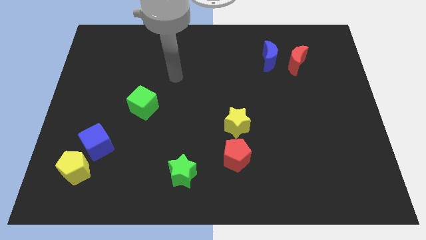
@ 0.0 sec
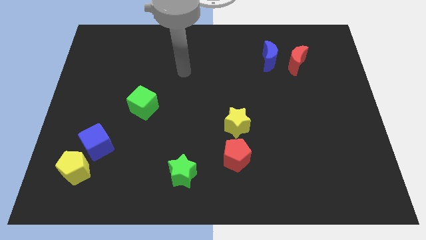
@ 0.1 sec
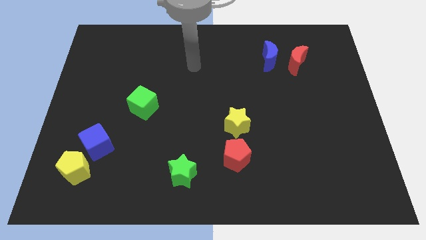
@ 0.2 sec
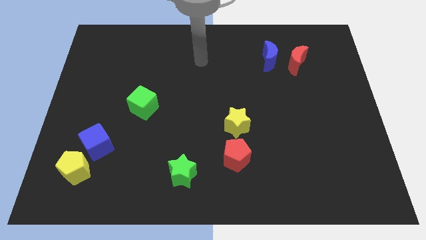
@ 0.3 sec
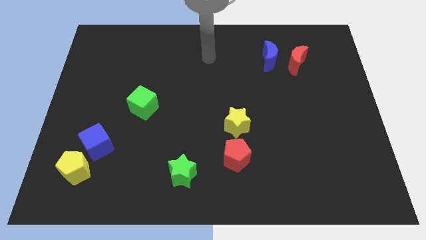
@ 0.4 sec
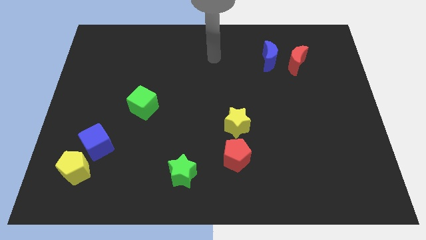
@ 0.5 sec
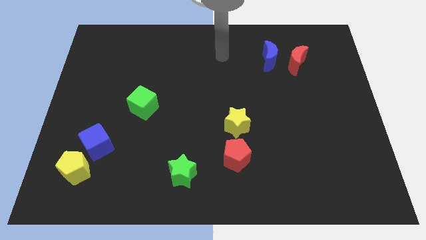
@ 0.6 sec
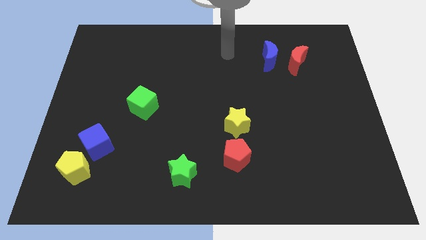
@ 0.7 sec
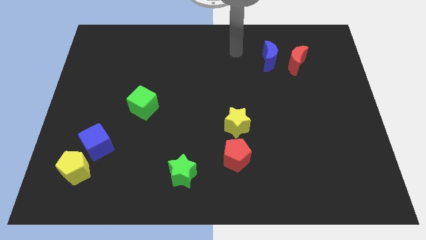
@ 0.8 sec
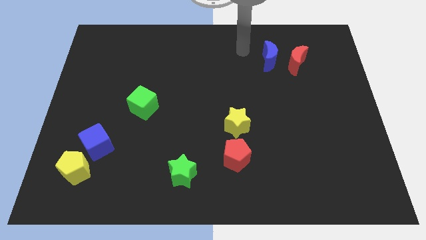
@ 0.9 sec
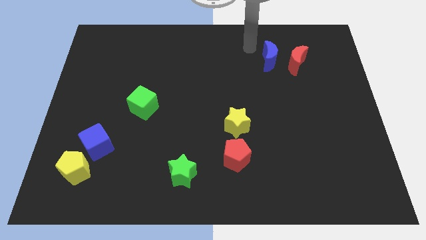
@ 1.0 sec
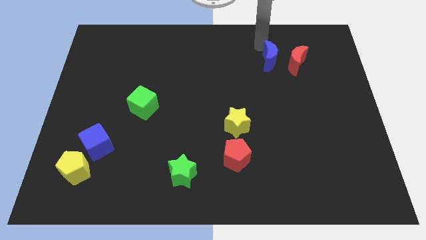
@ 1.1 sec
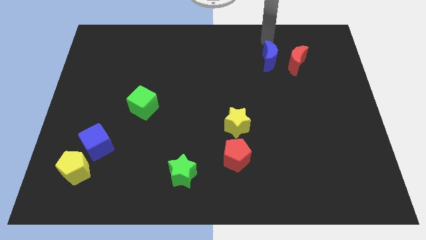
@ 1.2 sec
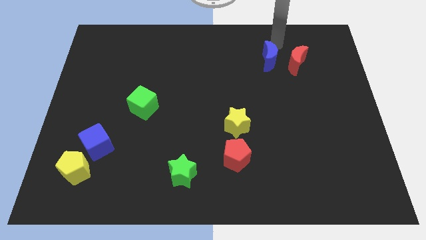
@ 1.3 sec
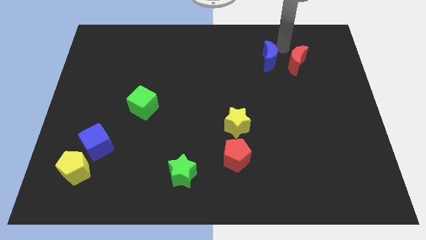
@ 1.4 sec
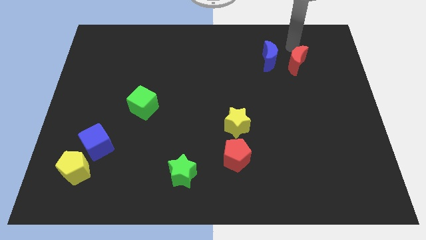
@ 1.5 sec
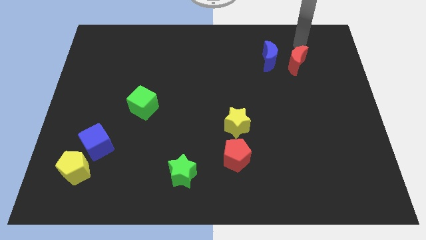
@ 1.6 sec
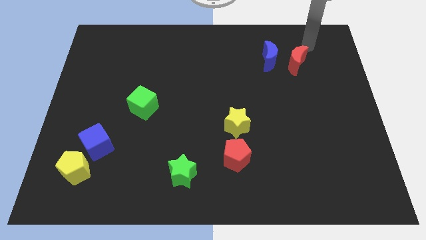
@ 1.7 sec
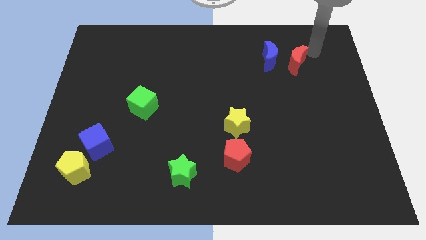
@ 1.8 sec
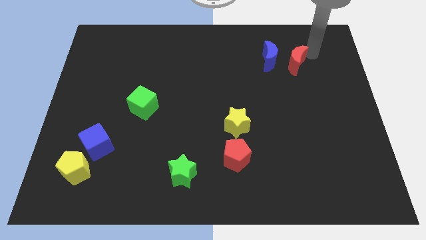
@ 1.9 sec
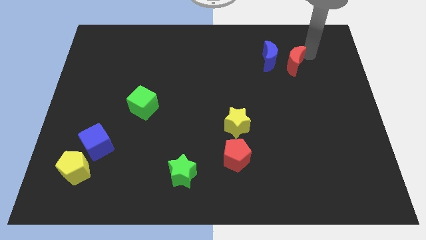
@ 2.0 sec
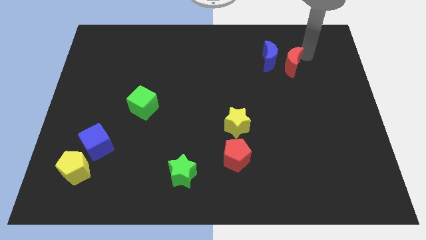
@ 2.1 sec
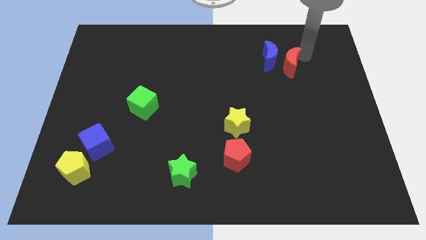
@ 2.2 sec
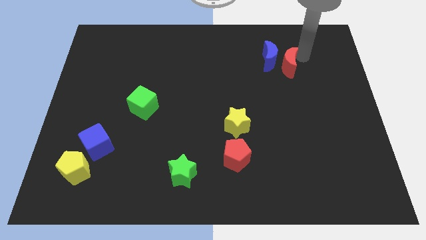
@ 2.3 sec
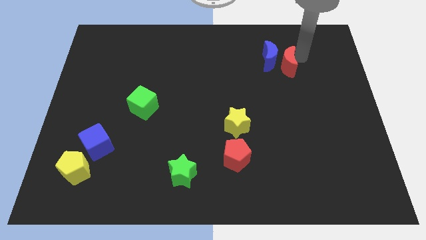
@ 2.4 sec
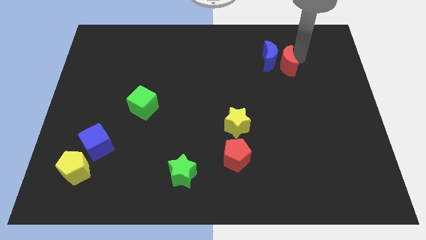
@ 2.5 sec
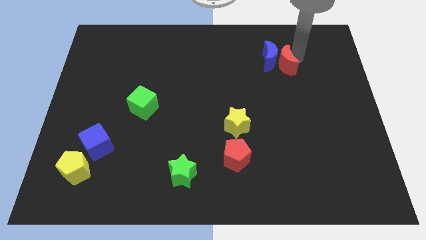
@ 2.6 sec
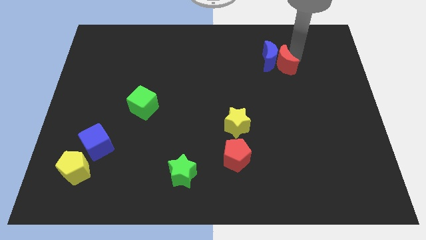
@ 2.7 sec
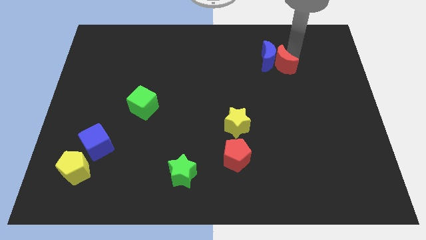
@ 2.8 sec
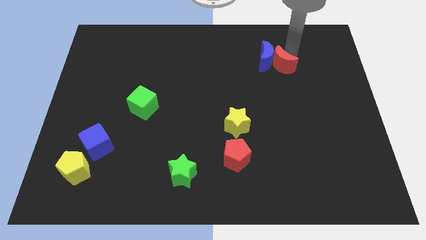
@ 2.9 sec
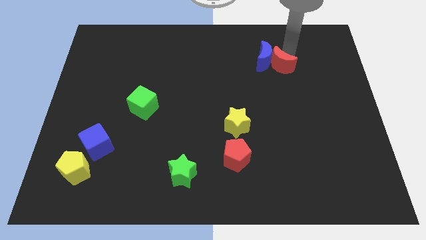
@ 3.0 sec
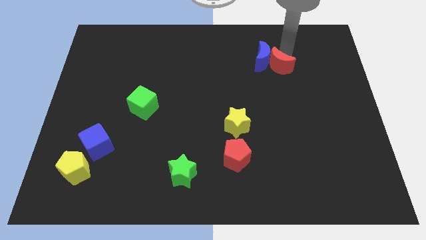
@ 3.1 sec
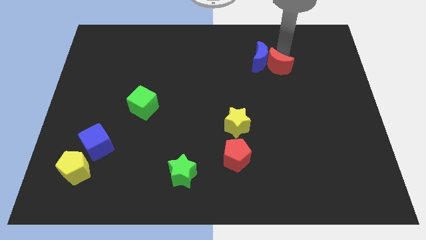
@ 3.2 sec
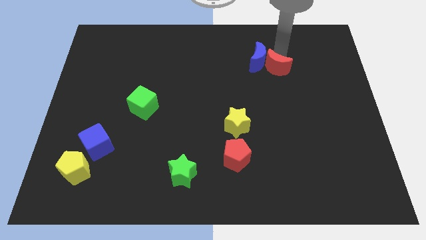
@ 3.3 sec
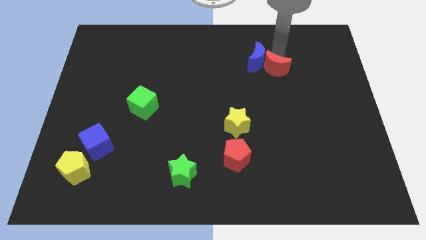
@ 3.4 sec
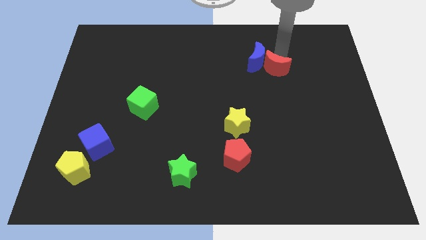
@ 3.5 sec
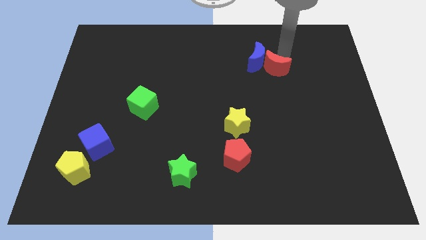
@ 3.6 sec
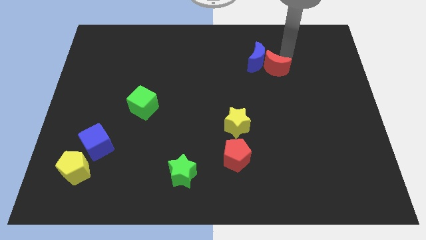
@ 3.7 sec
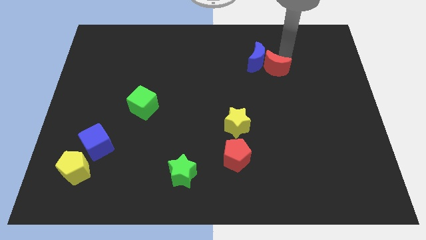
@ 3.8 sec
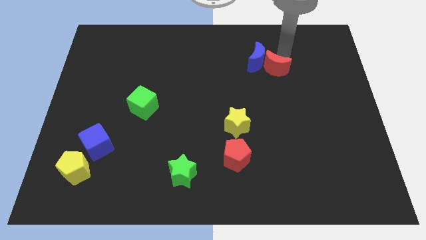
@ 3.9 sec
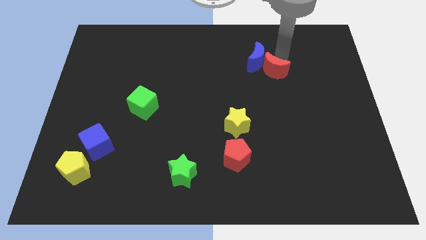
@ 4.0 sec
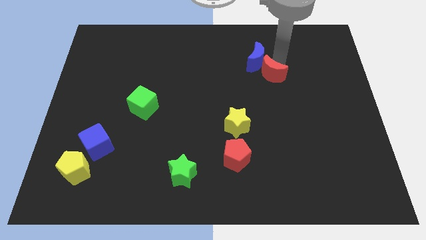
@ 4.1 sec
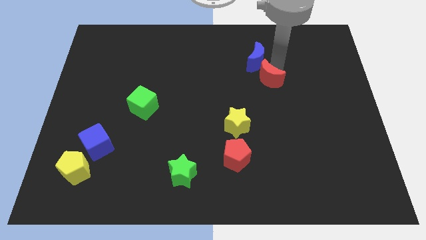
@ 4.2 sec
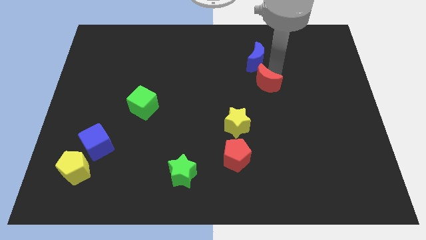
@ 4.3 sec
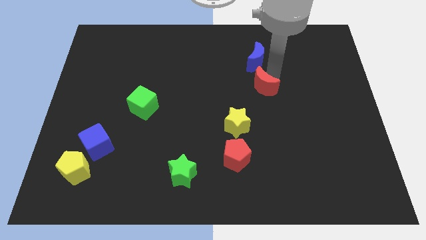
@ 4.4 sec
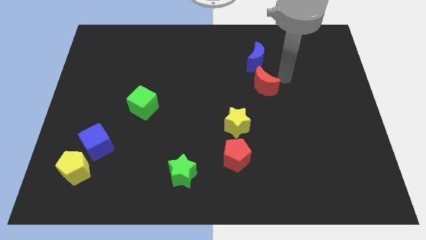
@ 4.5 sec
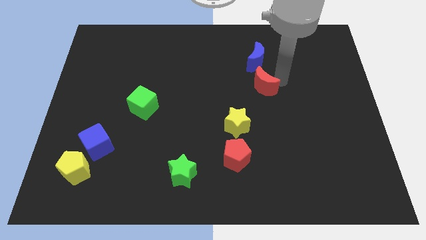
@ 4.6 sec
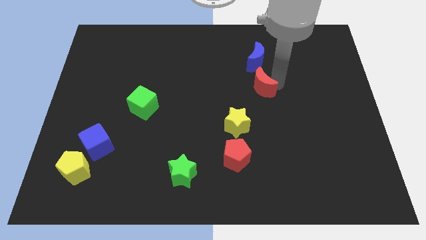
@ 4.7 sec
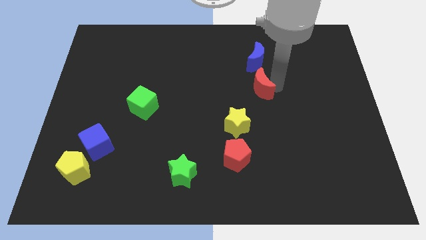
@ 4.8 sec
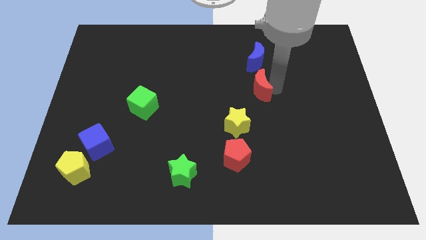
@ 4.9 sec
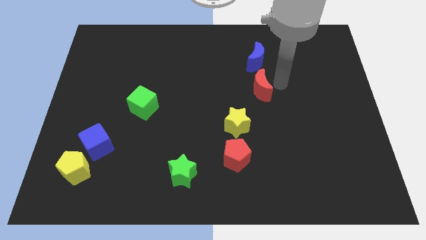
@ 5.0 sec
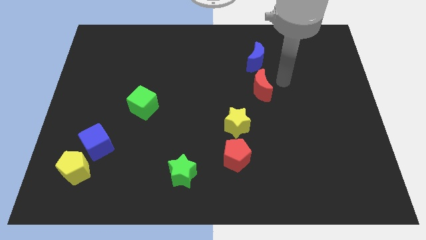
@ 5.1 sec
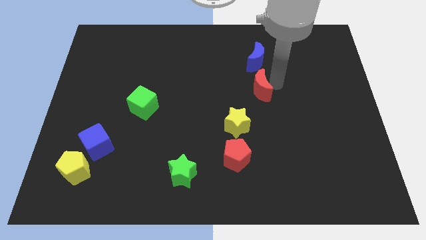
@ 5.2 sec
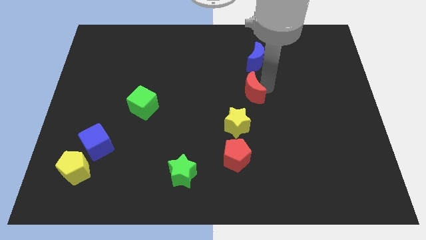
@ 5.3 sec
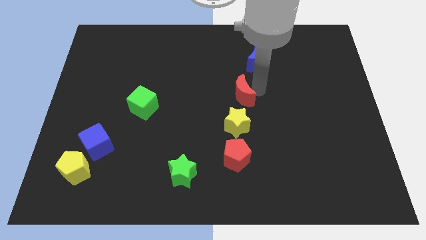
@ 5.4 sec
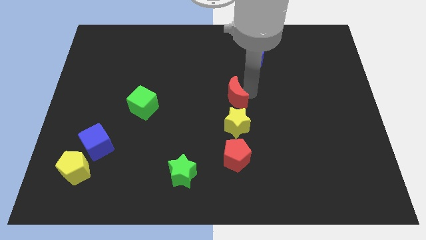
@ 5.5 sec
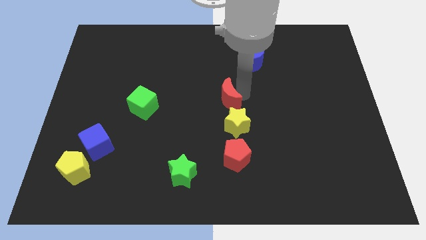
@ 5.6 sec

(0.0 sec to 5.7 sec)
push the red moon diagonally up and to the left of the yellow star

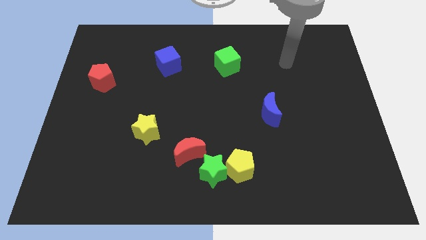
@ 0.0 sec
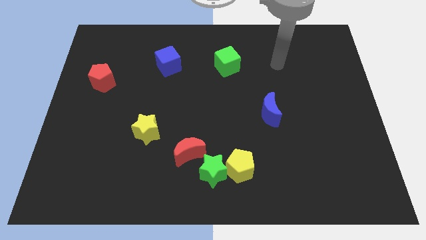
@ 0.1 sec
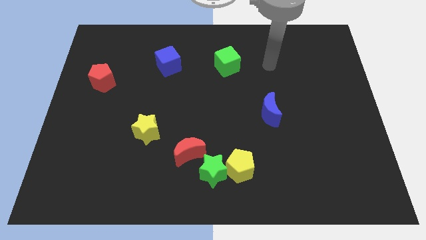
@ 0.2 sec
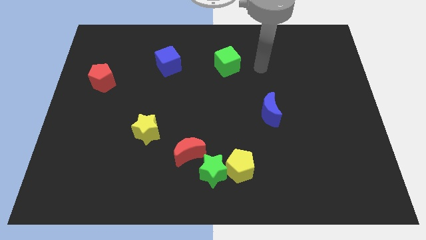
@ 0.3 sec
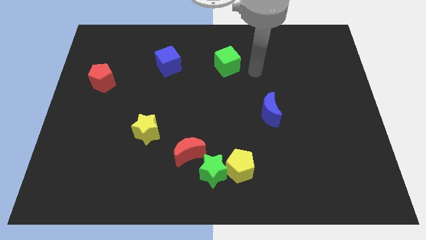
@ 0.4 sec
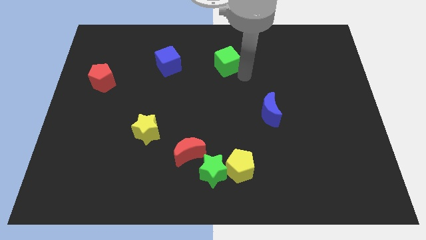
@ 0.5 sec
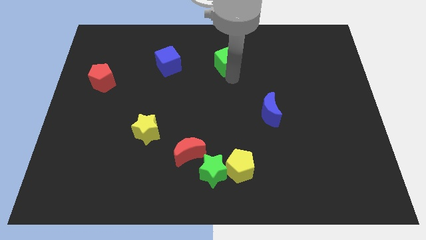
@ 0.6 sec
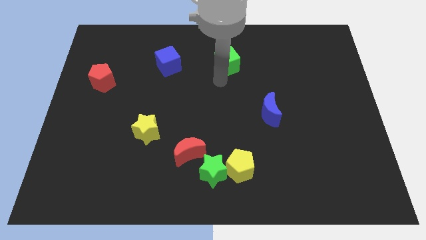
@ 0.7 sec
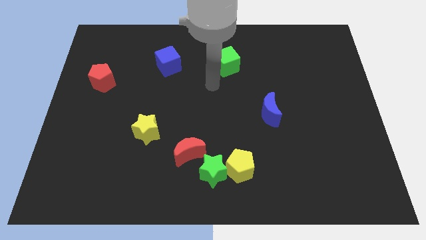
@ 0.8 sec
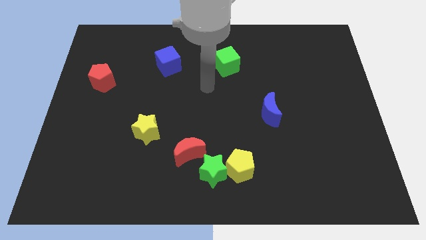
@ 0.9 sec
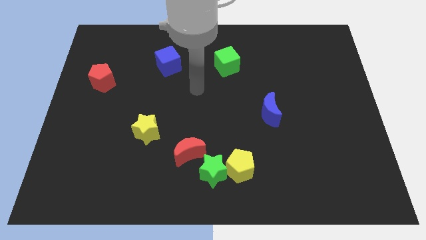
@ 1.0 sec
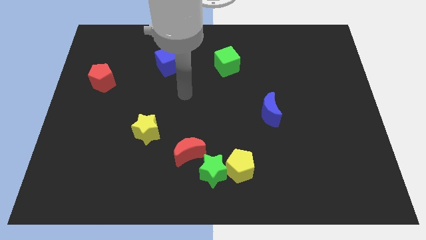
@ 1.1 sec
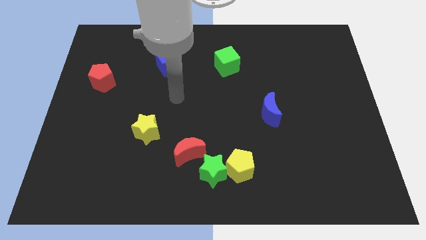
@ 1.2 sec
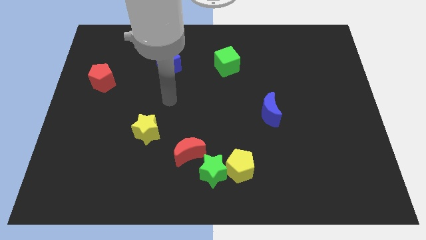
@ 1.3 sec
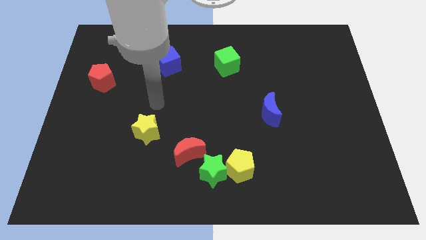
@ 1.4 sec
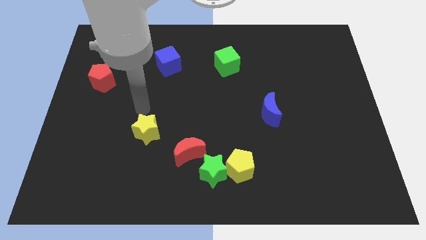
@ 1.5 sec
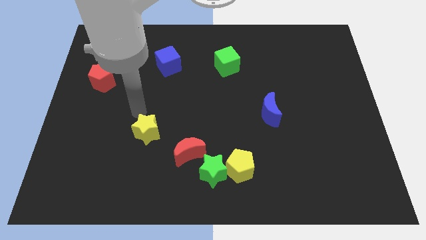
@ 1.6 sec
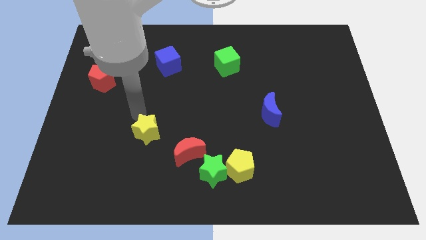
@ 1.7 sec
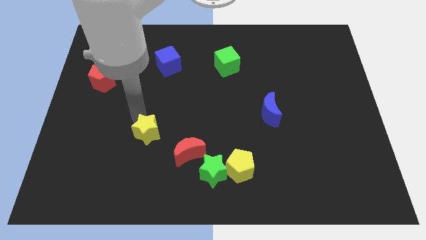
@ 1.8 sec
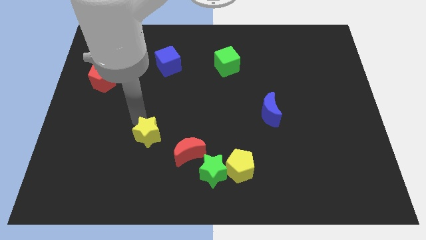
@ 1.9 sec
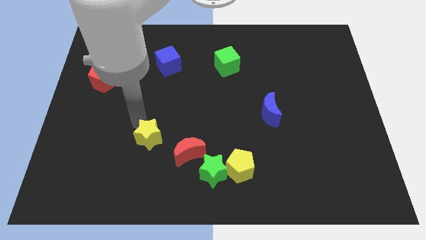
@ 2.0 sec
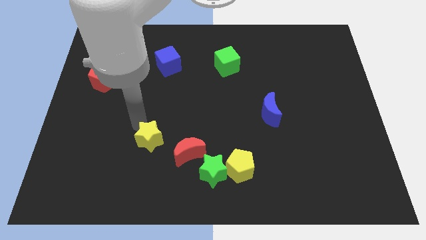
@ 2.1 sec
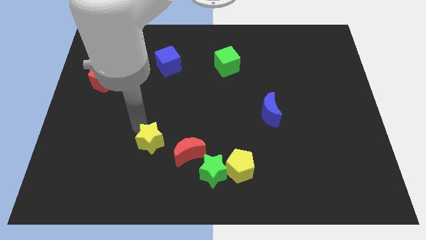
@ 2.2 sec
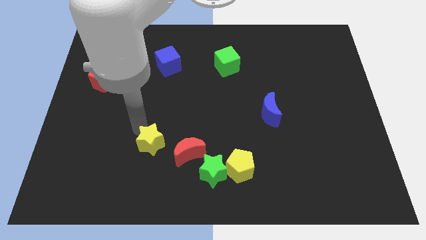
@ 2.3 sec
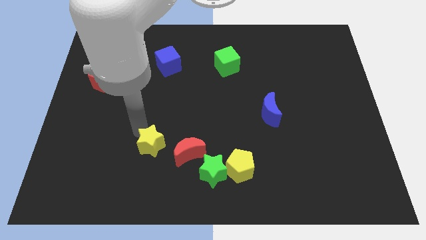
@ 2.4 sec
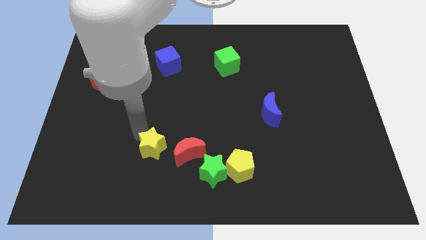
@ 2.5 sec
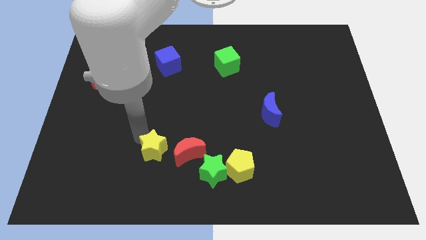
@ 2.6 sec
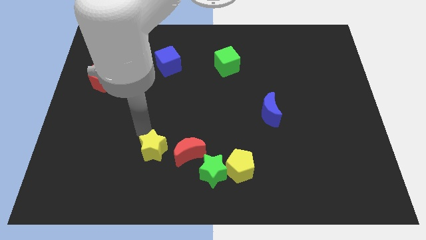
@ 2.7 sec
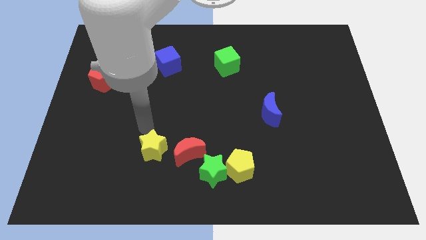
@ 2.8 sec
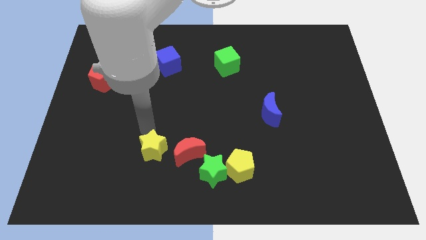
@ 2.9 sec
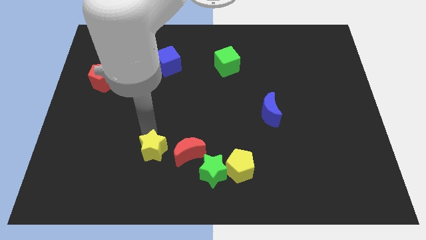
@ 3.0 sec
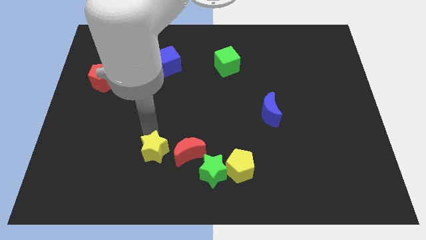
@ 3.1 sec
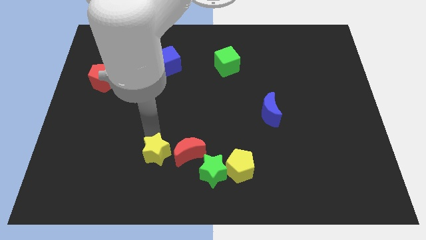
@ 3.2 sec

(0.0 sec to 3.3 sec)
push the yellow star to the bottom left side of the red moon
